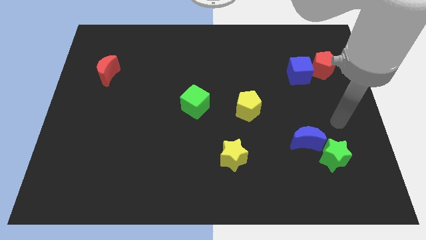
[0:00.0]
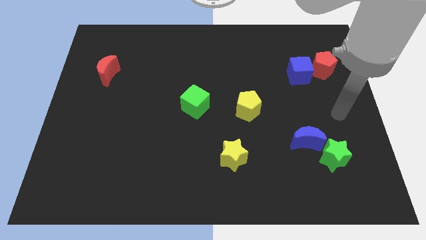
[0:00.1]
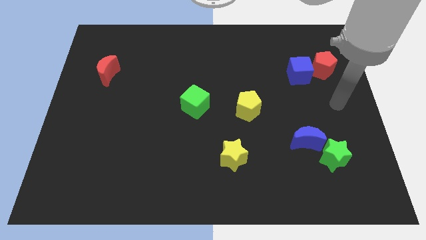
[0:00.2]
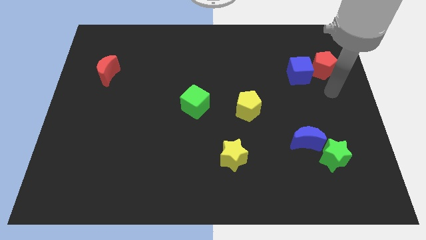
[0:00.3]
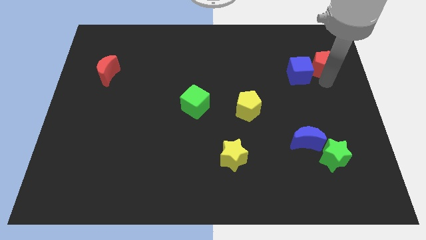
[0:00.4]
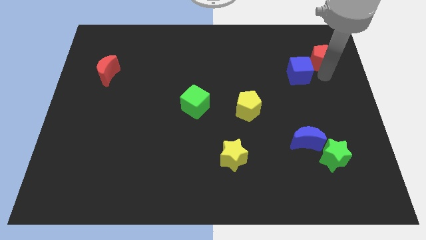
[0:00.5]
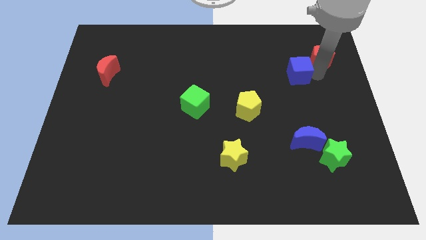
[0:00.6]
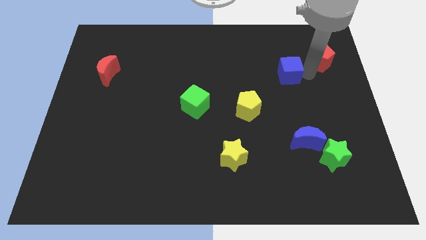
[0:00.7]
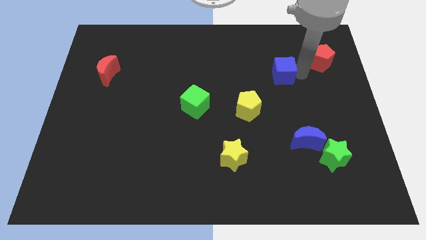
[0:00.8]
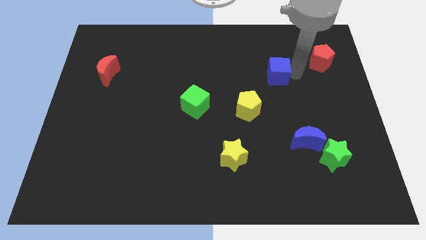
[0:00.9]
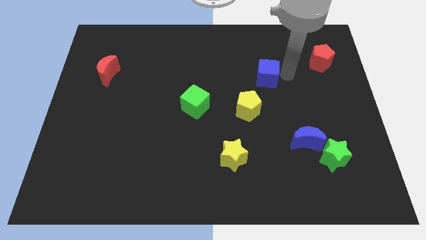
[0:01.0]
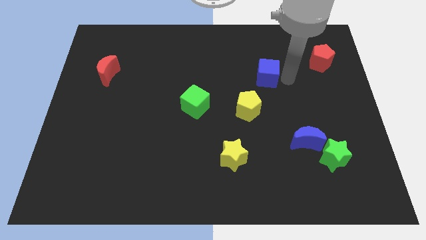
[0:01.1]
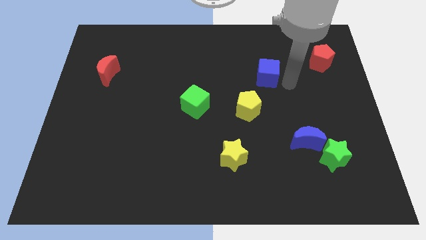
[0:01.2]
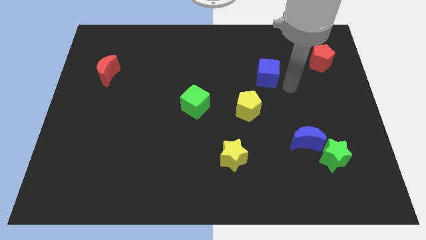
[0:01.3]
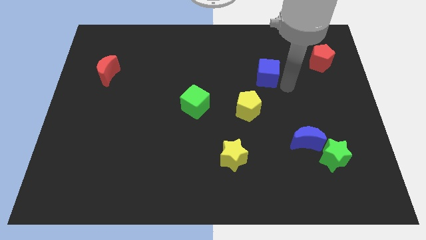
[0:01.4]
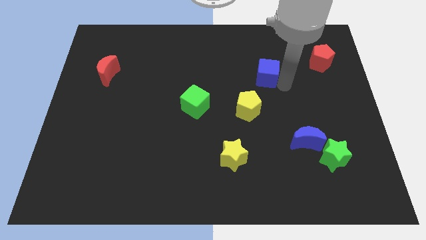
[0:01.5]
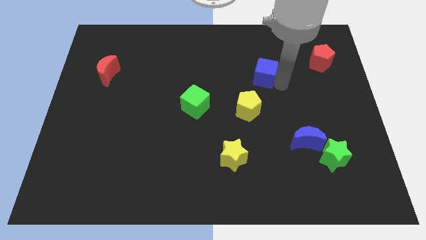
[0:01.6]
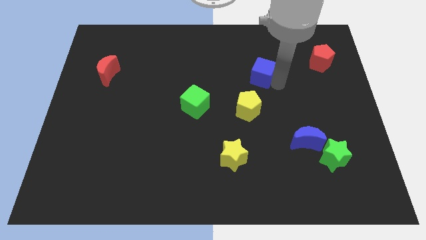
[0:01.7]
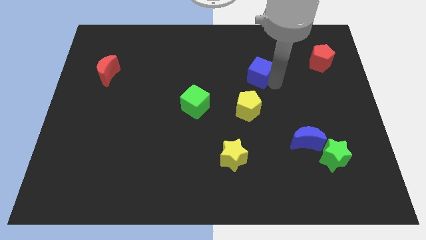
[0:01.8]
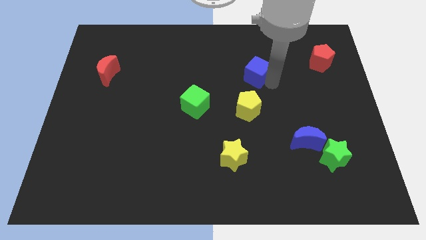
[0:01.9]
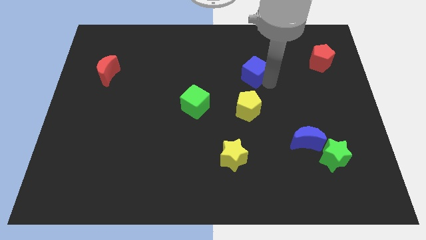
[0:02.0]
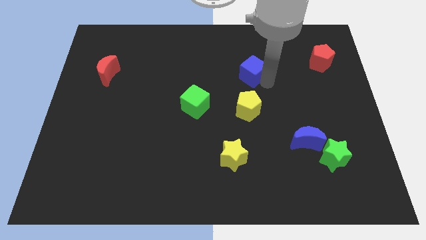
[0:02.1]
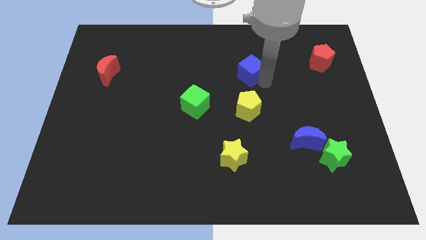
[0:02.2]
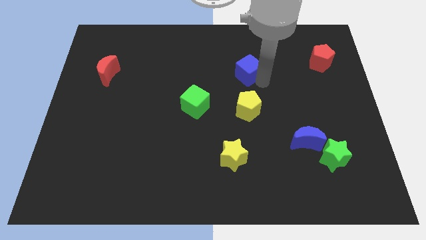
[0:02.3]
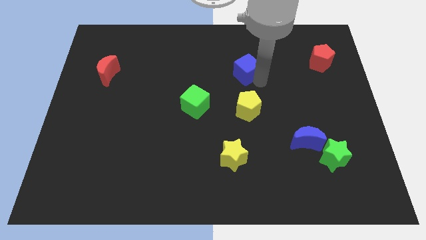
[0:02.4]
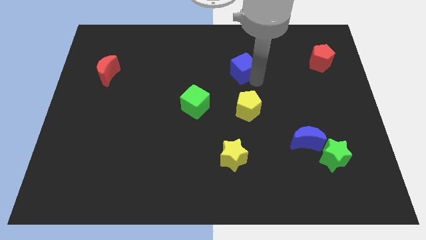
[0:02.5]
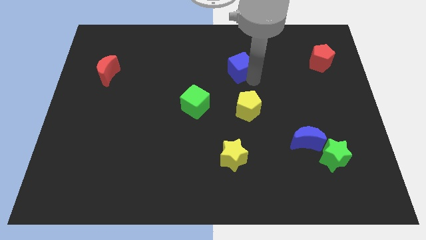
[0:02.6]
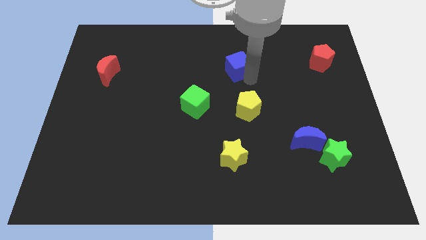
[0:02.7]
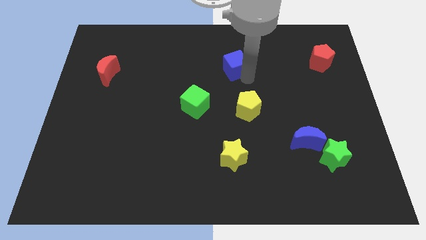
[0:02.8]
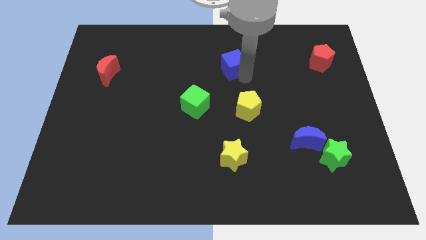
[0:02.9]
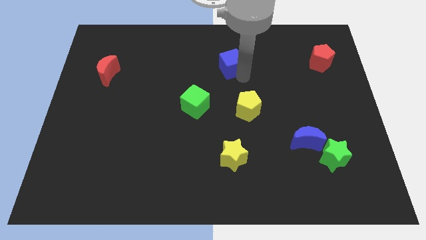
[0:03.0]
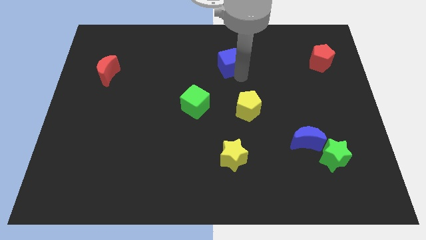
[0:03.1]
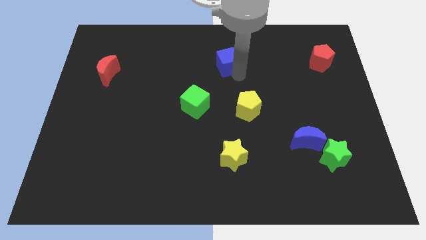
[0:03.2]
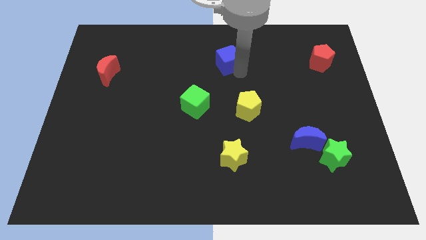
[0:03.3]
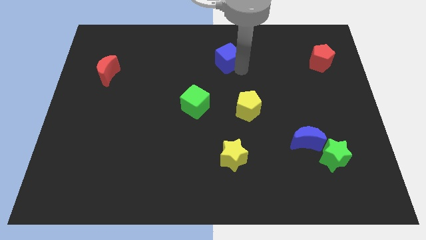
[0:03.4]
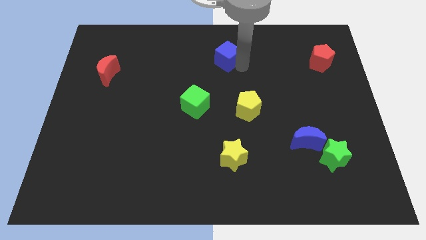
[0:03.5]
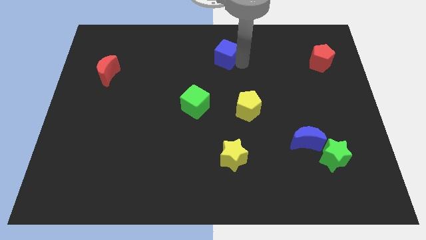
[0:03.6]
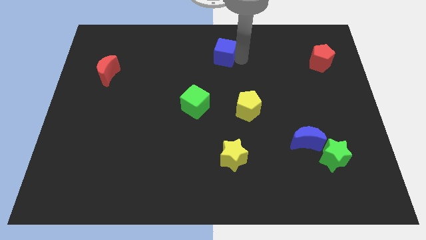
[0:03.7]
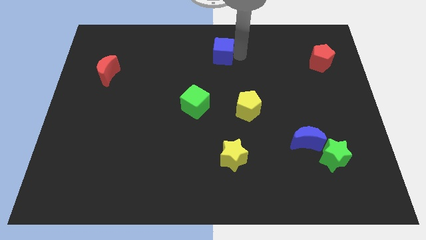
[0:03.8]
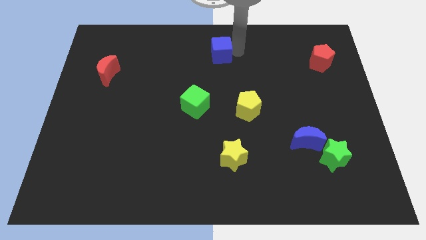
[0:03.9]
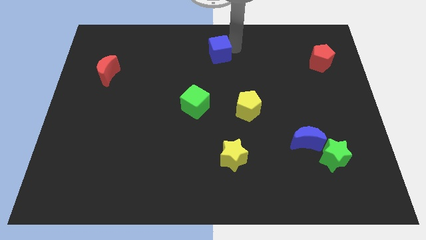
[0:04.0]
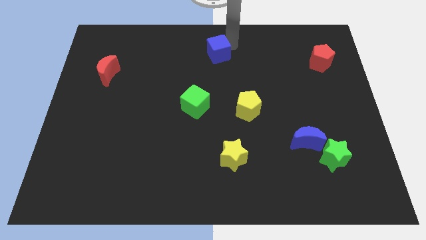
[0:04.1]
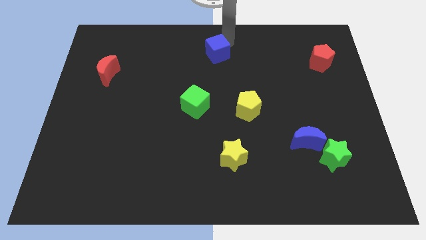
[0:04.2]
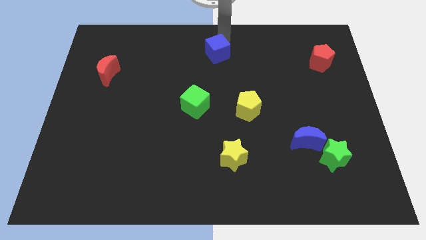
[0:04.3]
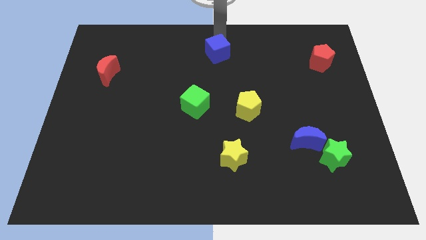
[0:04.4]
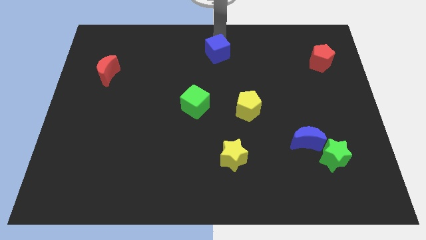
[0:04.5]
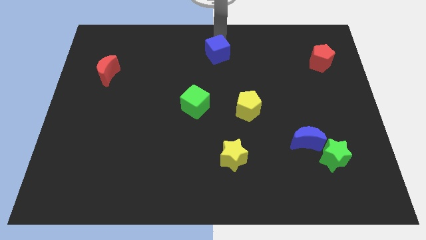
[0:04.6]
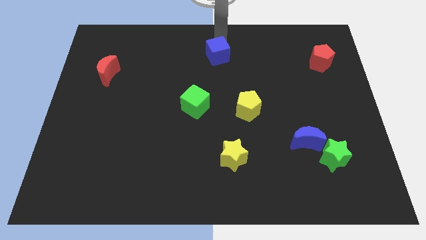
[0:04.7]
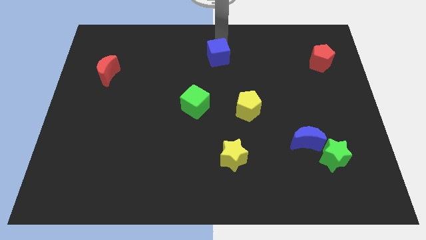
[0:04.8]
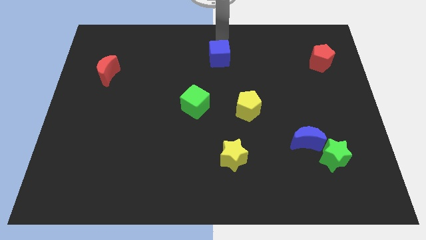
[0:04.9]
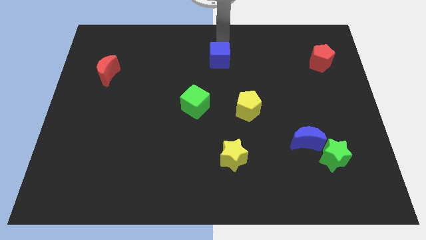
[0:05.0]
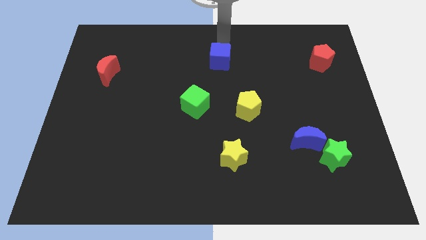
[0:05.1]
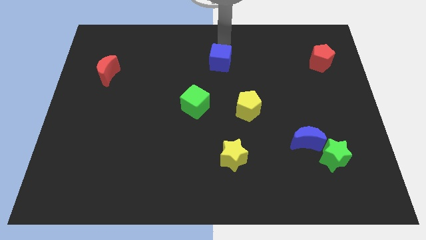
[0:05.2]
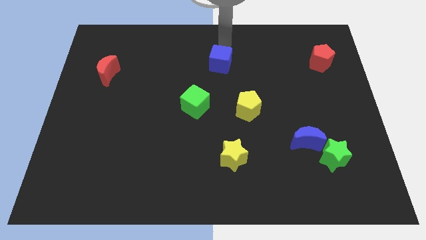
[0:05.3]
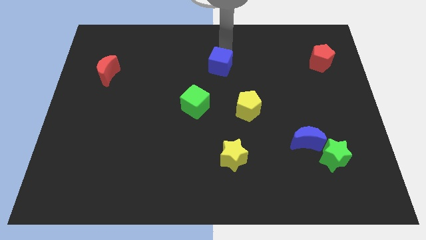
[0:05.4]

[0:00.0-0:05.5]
push the blue cube left

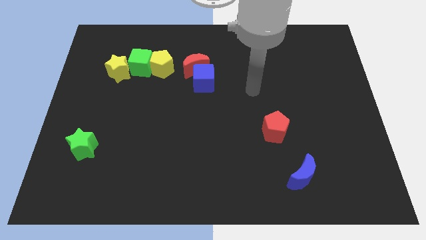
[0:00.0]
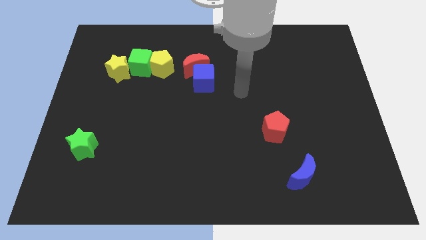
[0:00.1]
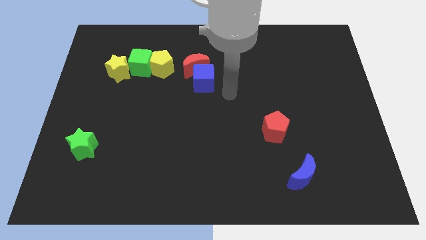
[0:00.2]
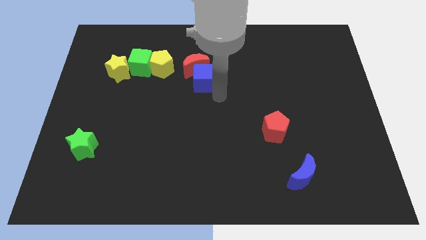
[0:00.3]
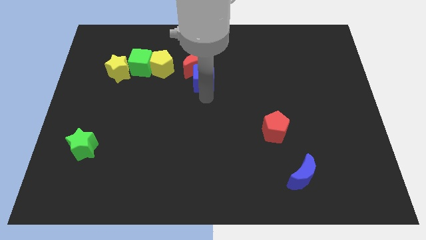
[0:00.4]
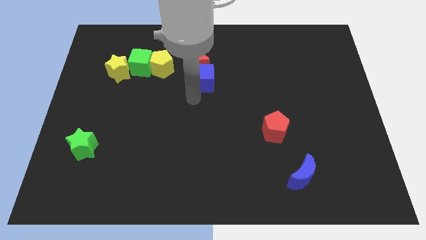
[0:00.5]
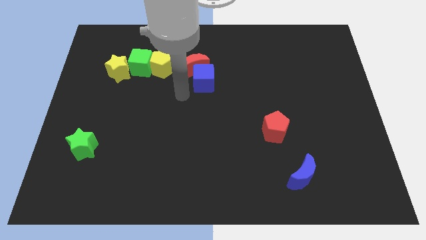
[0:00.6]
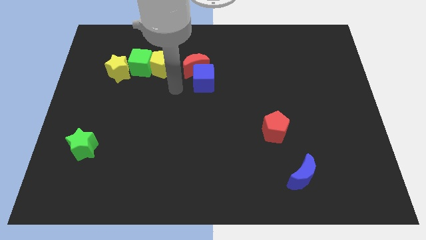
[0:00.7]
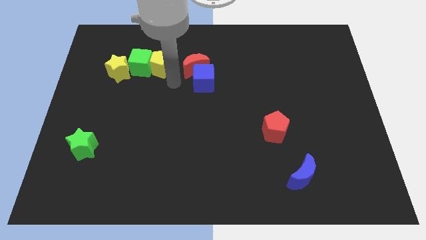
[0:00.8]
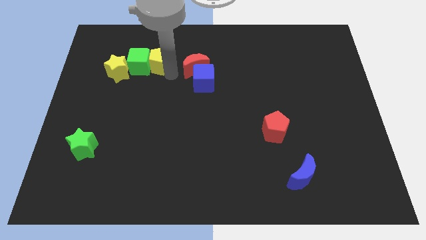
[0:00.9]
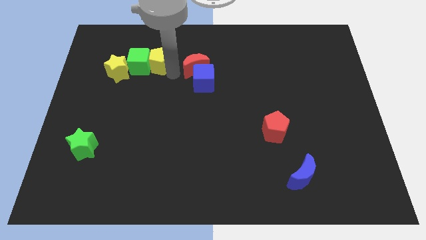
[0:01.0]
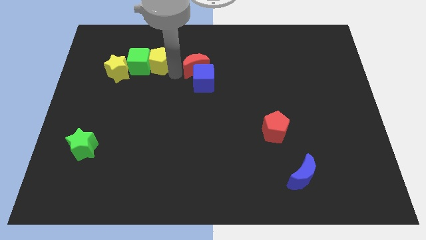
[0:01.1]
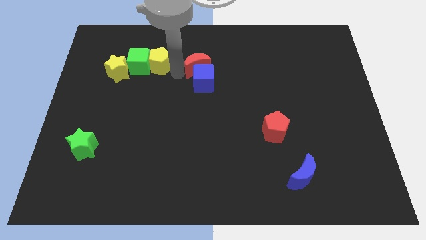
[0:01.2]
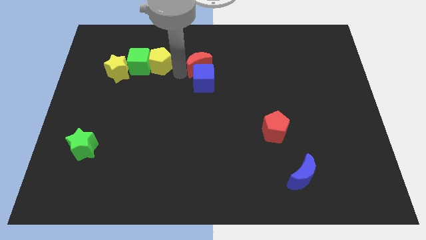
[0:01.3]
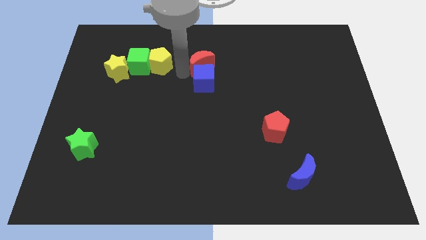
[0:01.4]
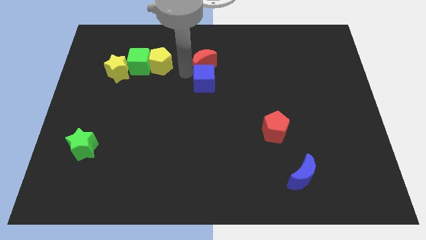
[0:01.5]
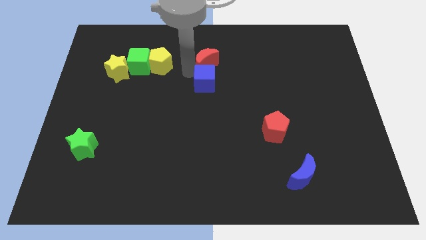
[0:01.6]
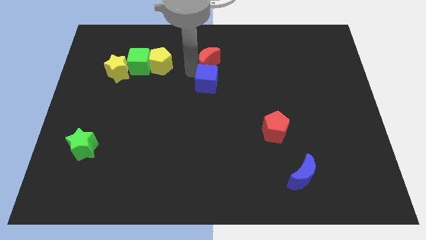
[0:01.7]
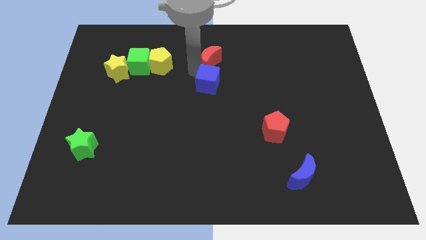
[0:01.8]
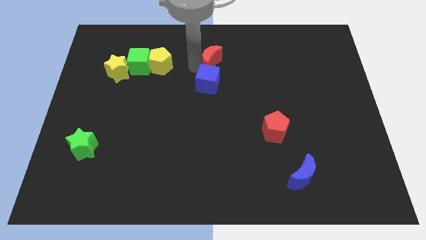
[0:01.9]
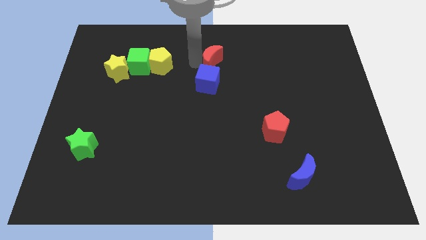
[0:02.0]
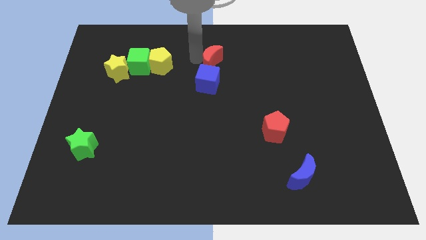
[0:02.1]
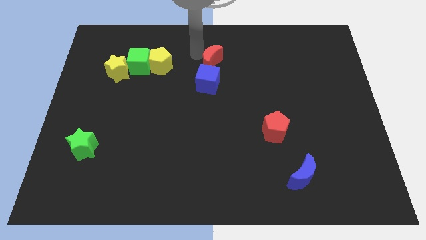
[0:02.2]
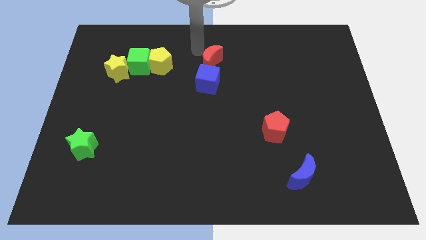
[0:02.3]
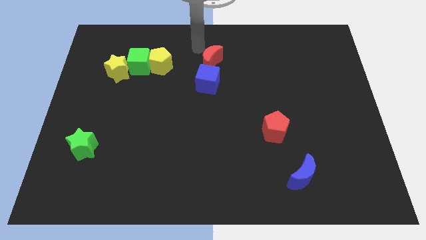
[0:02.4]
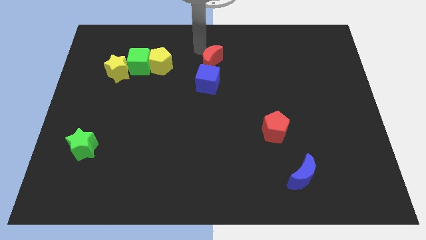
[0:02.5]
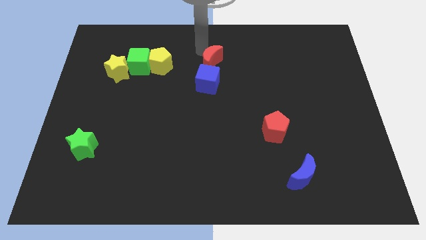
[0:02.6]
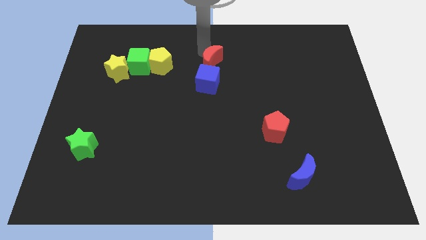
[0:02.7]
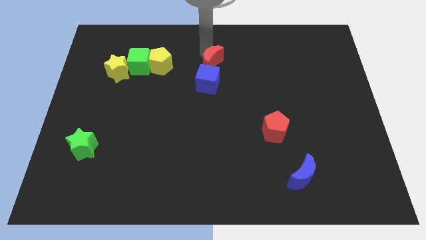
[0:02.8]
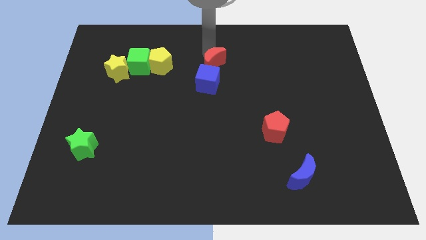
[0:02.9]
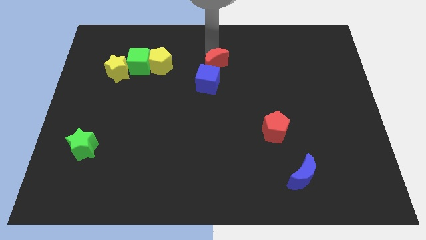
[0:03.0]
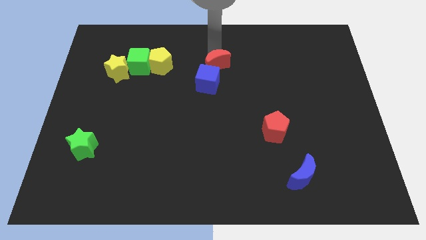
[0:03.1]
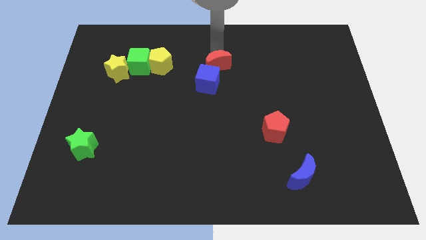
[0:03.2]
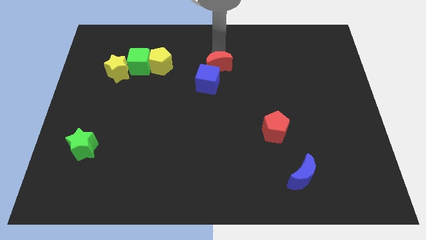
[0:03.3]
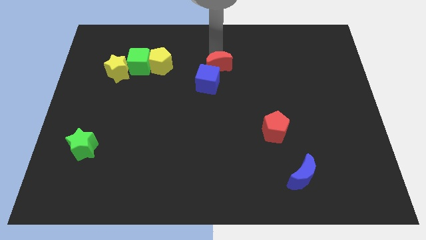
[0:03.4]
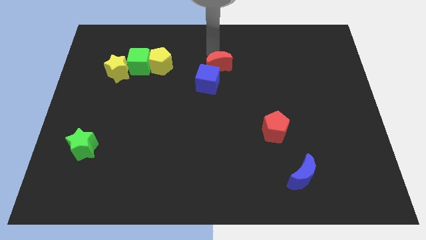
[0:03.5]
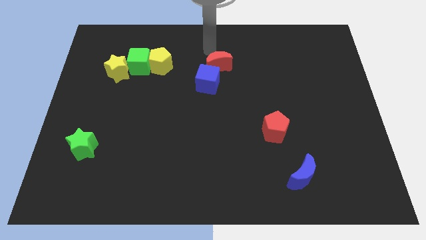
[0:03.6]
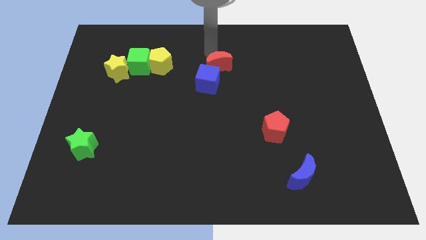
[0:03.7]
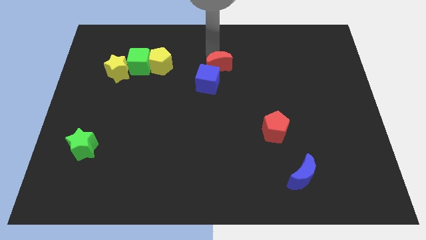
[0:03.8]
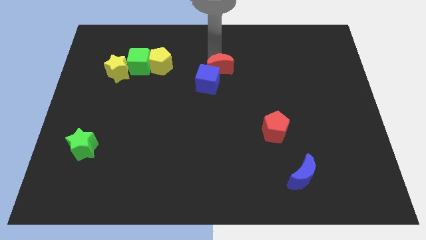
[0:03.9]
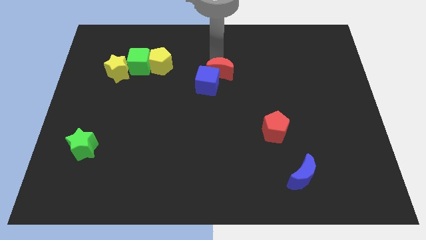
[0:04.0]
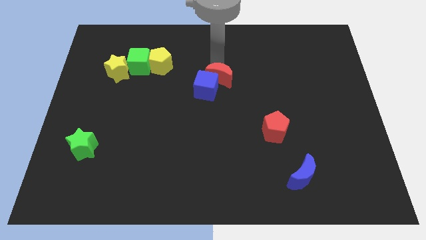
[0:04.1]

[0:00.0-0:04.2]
slightly slide the red moon down and then to the right
